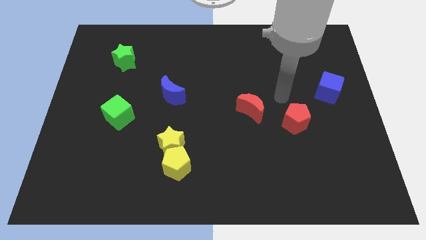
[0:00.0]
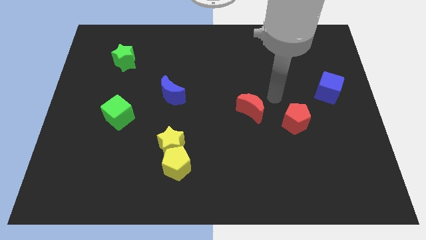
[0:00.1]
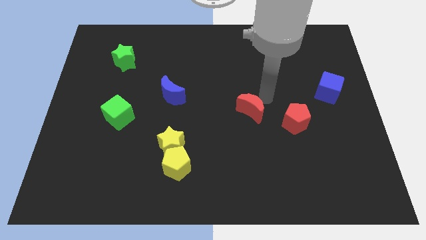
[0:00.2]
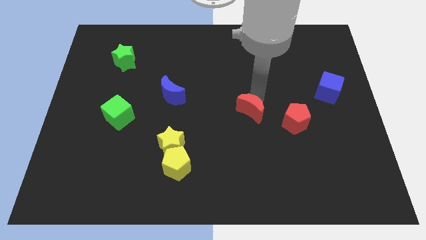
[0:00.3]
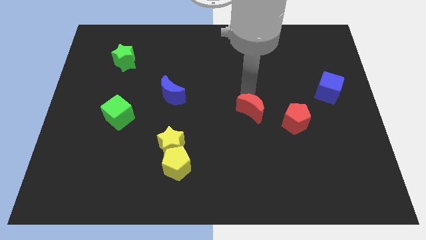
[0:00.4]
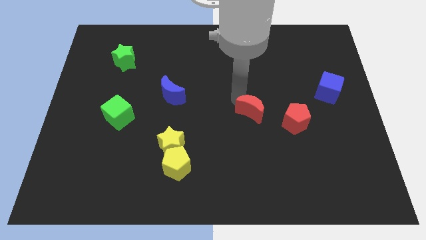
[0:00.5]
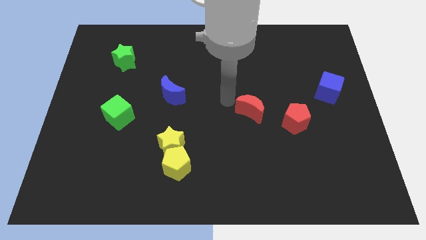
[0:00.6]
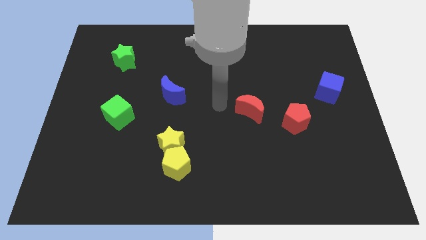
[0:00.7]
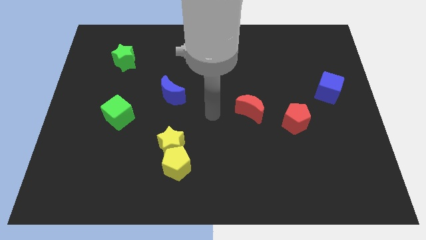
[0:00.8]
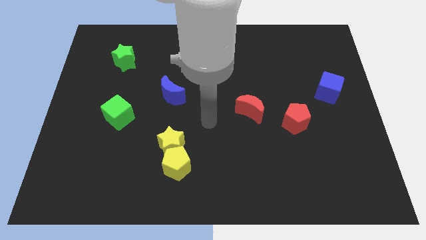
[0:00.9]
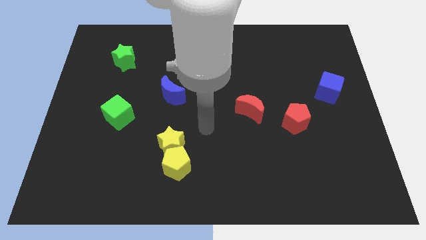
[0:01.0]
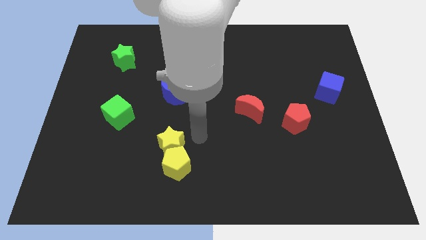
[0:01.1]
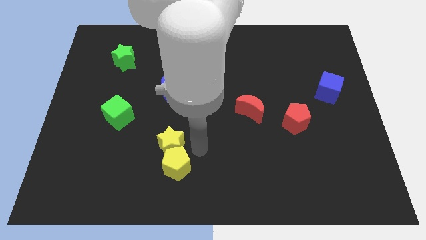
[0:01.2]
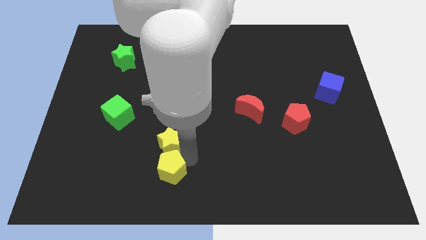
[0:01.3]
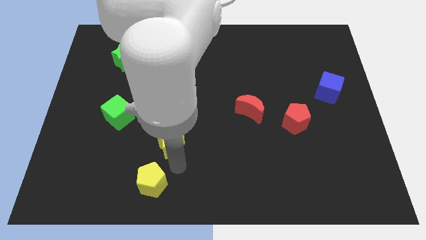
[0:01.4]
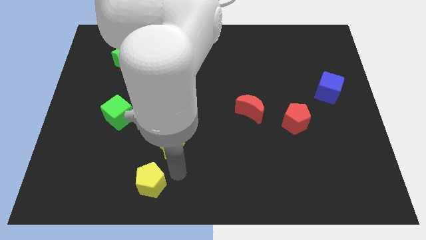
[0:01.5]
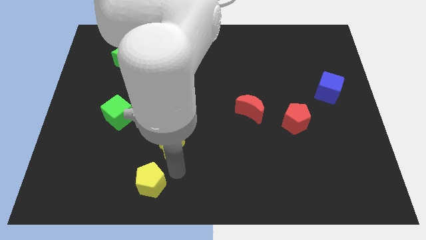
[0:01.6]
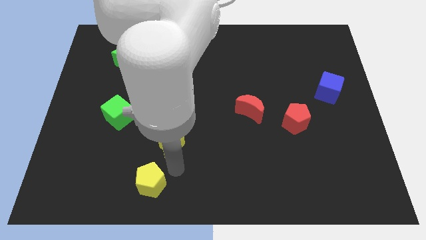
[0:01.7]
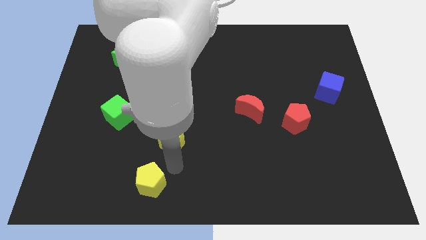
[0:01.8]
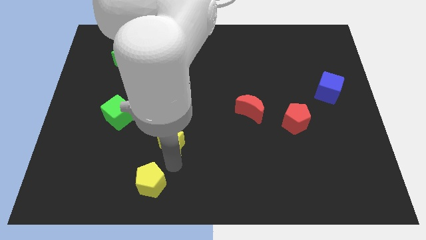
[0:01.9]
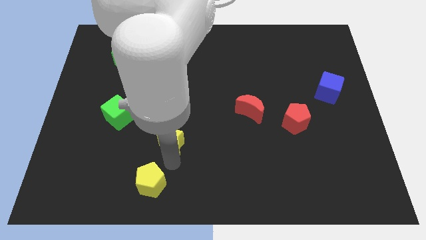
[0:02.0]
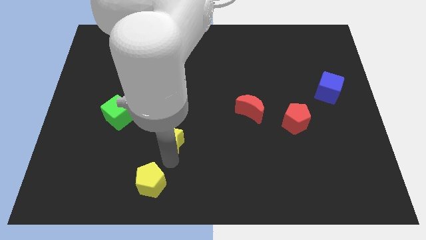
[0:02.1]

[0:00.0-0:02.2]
move the yellow star away from the yellow pentagon

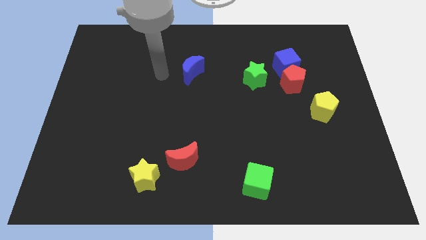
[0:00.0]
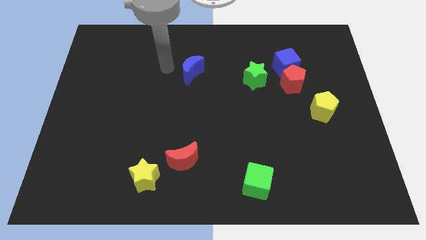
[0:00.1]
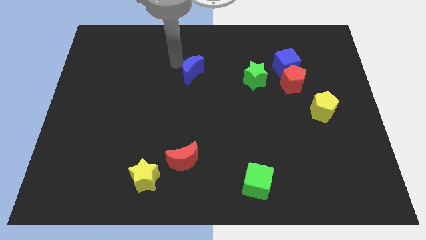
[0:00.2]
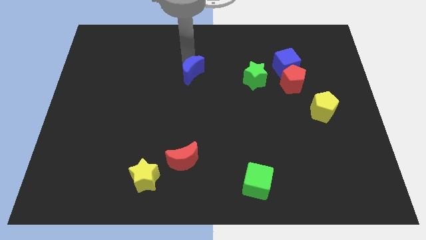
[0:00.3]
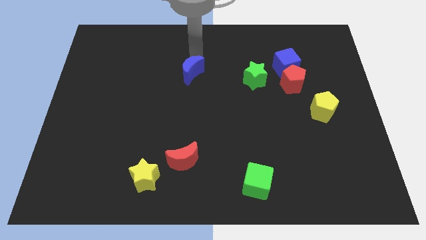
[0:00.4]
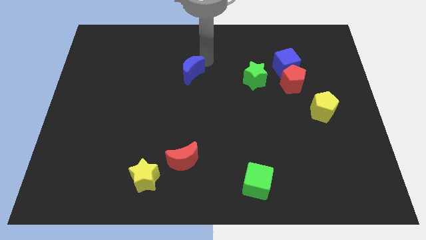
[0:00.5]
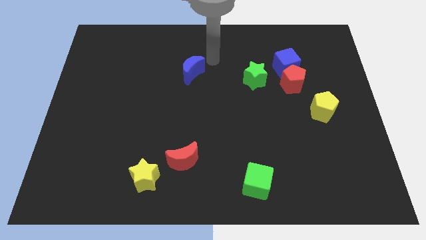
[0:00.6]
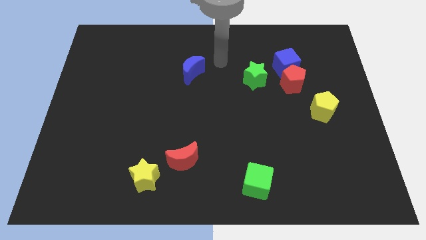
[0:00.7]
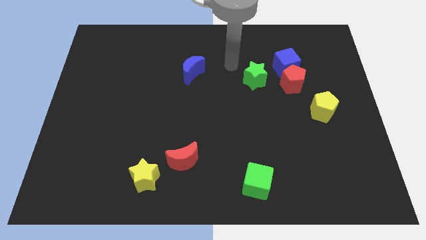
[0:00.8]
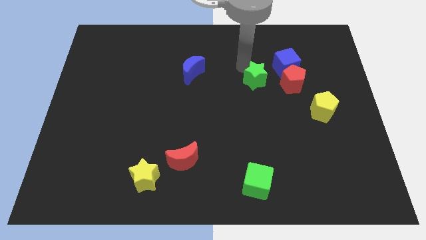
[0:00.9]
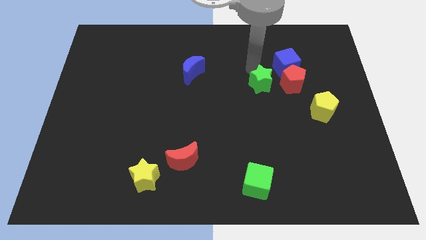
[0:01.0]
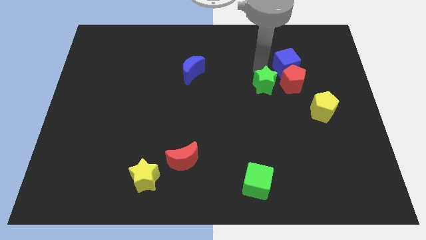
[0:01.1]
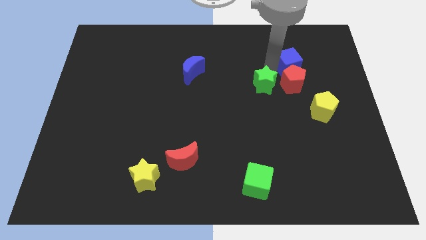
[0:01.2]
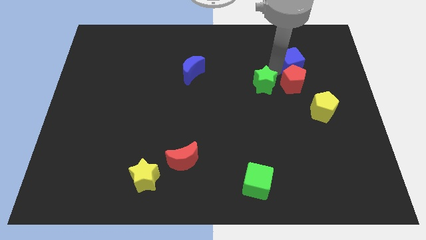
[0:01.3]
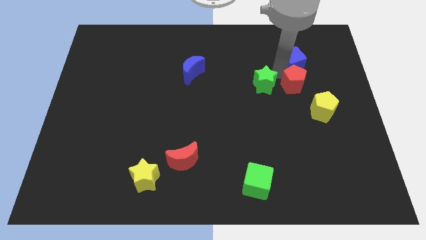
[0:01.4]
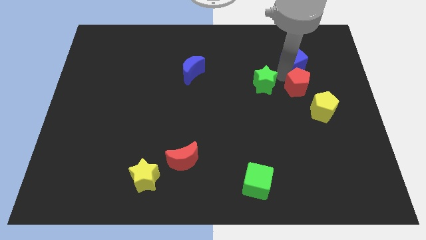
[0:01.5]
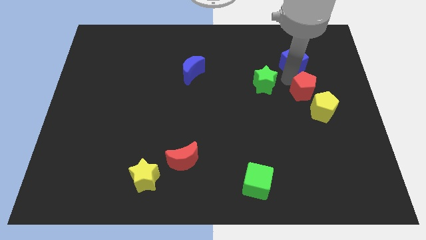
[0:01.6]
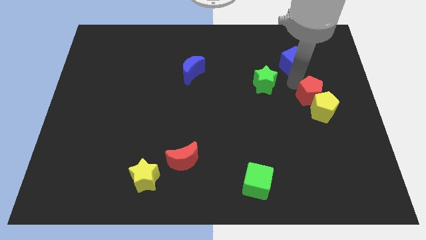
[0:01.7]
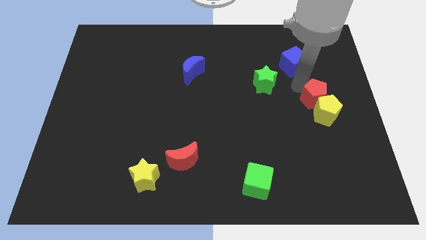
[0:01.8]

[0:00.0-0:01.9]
move the red pentagon away from the blue cube and green star

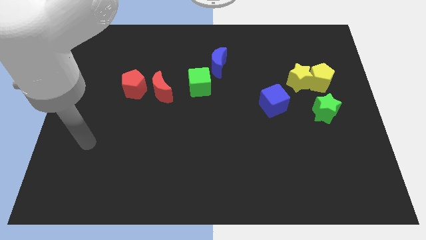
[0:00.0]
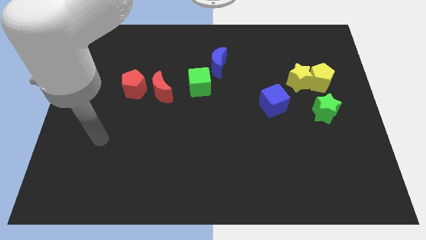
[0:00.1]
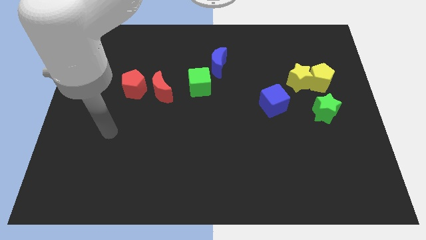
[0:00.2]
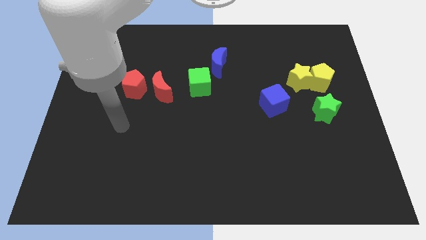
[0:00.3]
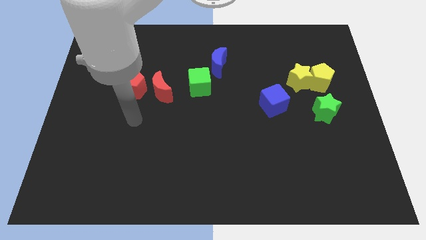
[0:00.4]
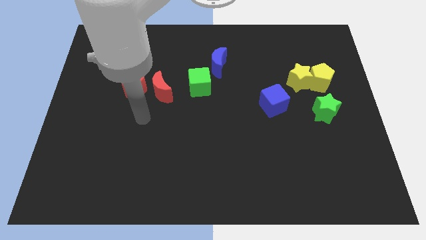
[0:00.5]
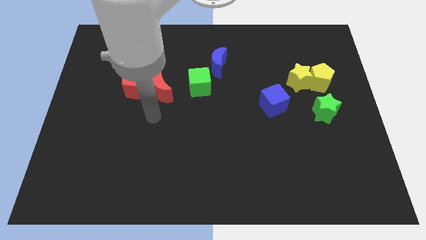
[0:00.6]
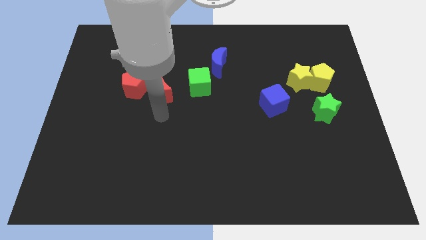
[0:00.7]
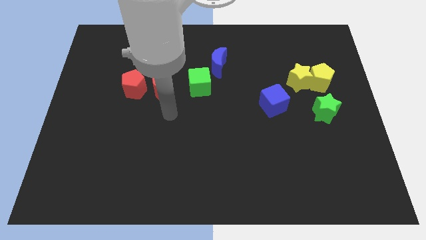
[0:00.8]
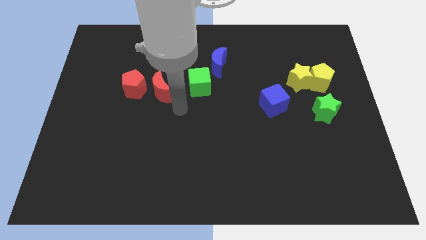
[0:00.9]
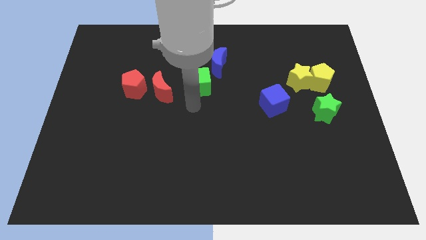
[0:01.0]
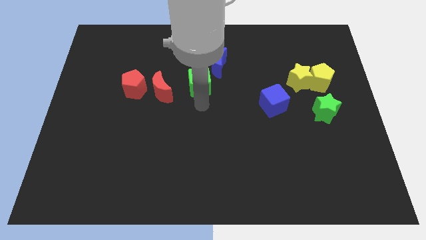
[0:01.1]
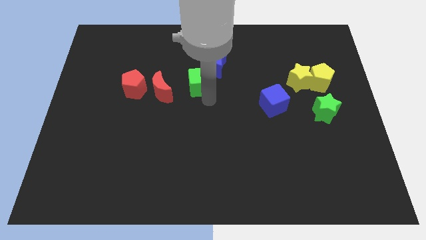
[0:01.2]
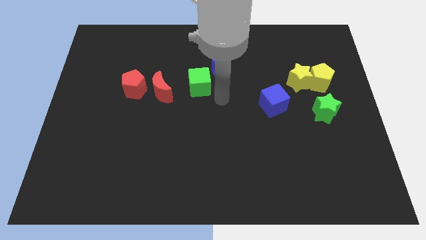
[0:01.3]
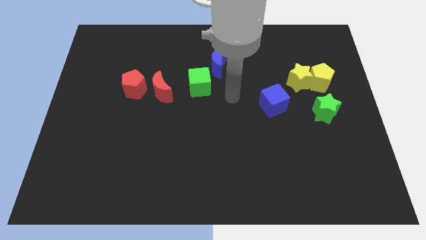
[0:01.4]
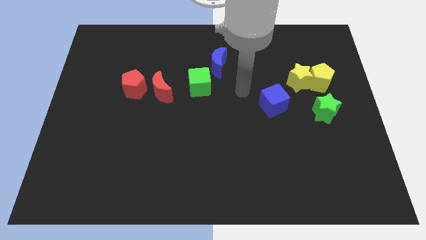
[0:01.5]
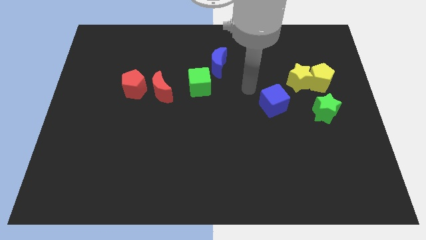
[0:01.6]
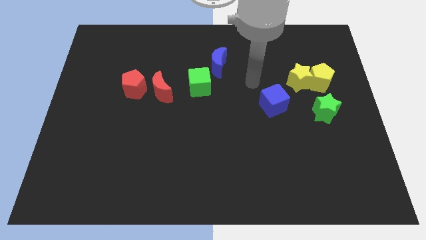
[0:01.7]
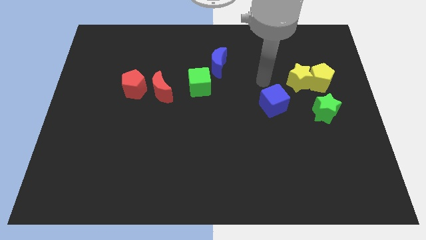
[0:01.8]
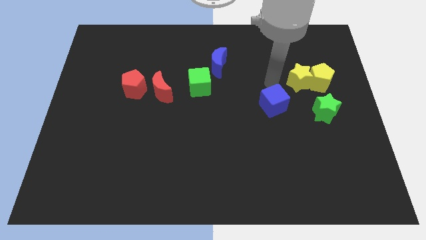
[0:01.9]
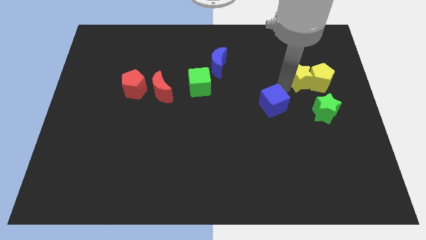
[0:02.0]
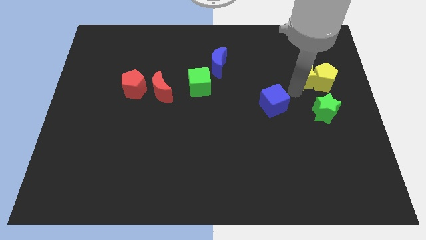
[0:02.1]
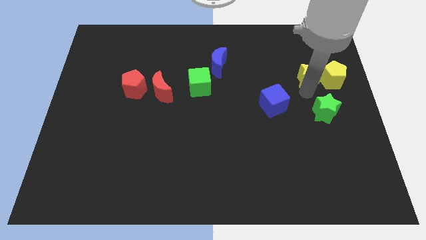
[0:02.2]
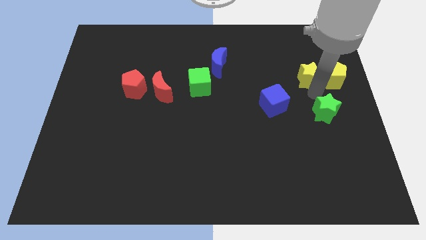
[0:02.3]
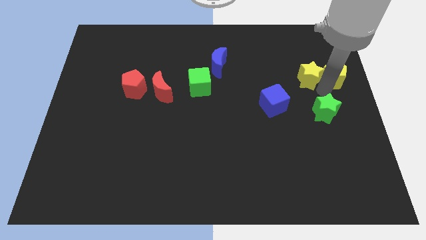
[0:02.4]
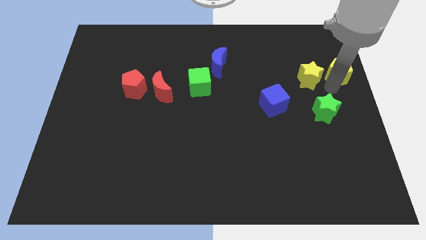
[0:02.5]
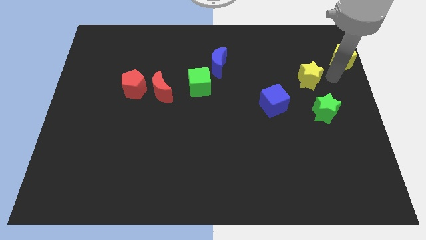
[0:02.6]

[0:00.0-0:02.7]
separate the yellow star from the yellow pentagon

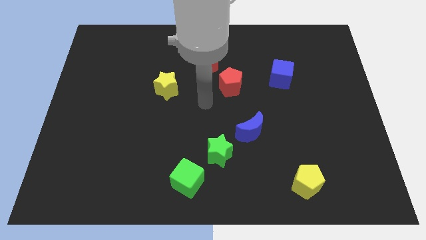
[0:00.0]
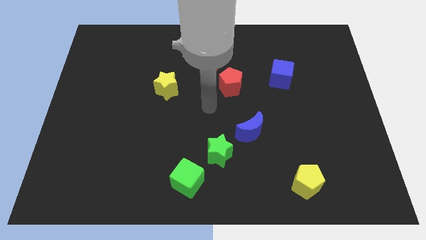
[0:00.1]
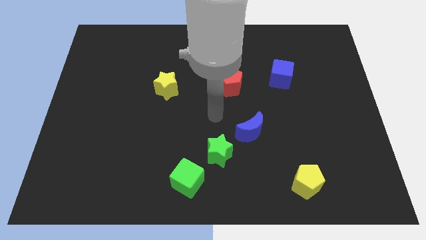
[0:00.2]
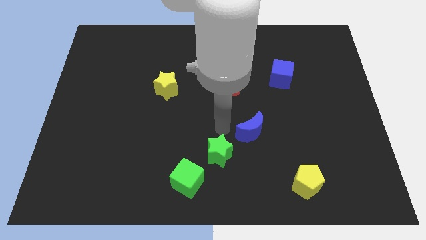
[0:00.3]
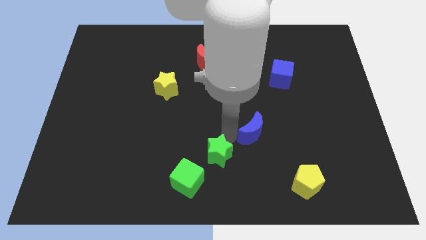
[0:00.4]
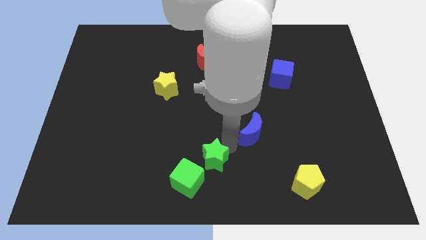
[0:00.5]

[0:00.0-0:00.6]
pull the blue moon apart from the green star

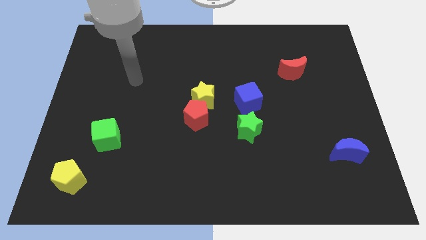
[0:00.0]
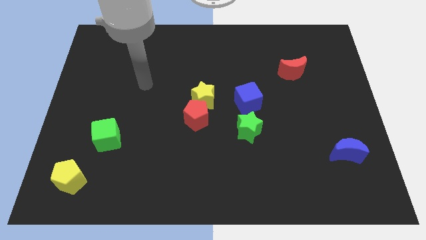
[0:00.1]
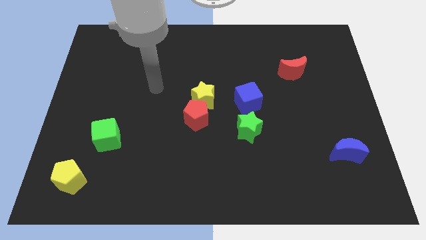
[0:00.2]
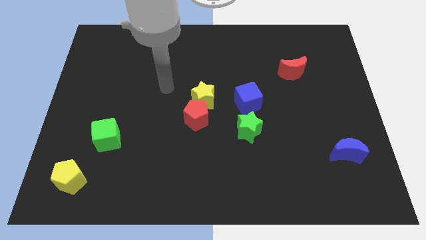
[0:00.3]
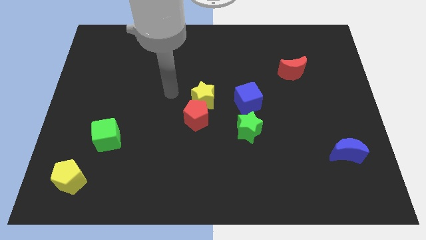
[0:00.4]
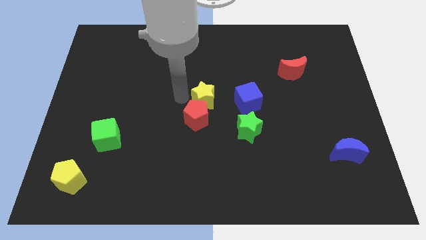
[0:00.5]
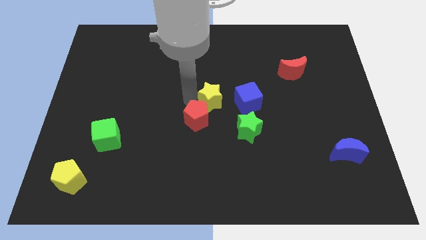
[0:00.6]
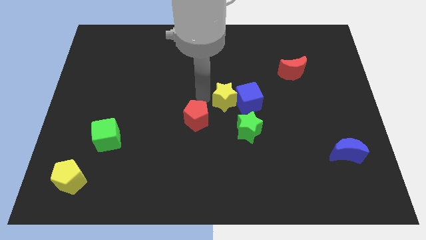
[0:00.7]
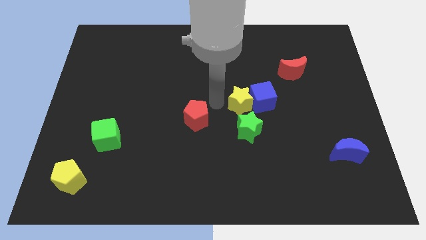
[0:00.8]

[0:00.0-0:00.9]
move the red pentagon away from the yellow star

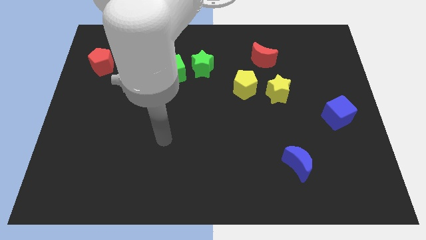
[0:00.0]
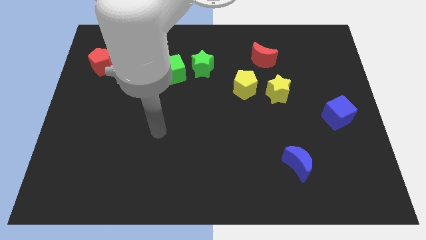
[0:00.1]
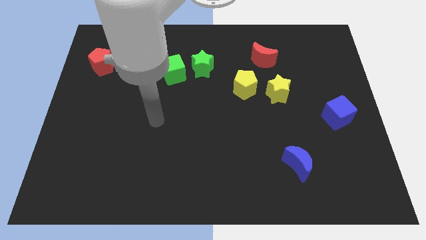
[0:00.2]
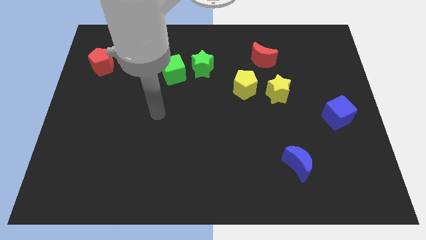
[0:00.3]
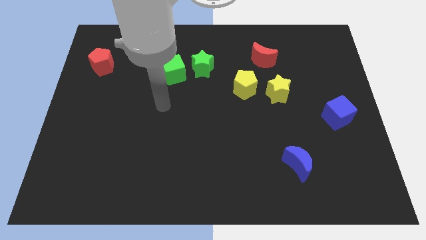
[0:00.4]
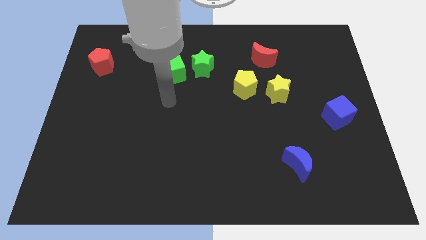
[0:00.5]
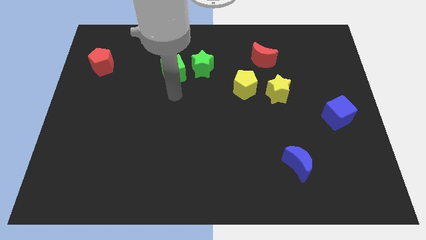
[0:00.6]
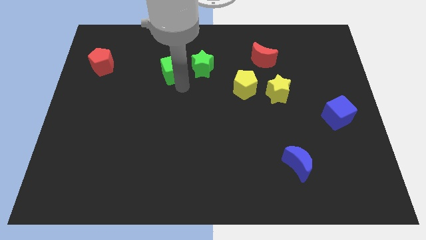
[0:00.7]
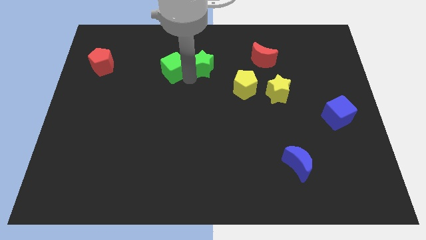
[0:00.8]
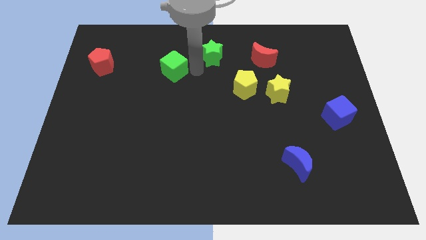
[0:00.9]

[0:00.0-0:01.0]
pull the green cube apart from the green star

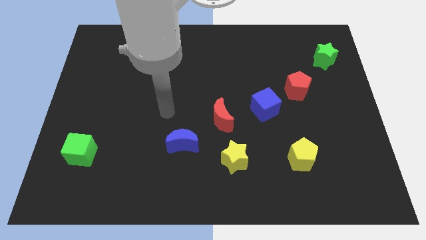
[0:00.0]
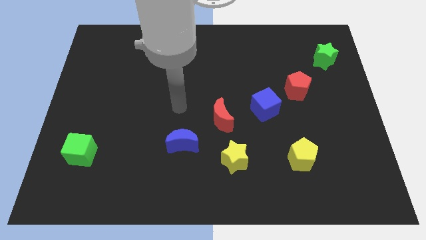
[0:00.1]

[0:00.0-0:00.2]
move the red pentagon away from the blue cube
